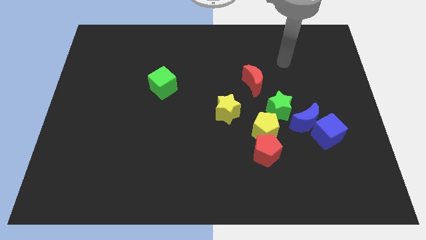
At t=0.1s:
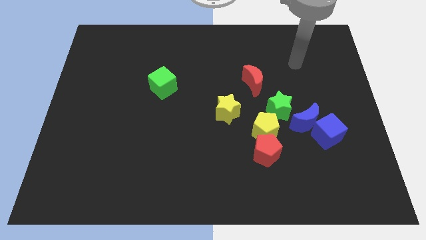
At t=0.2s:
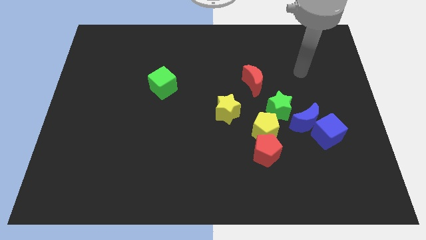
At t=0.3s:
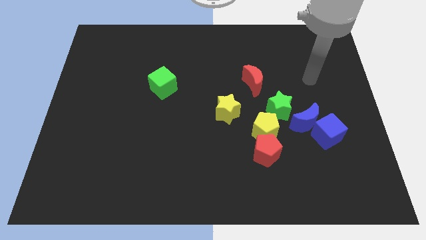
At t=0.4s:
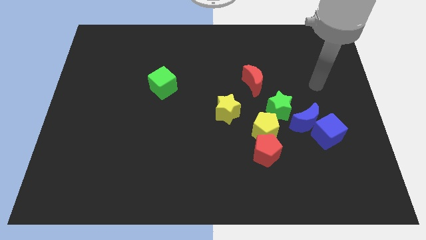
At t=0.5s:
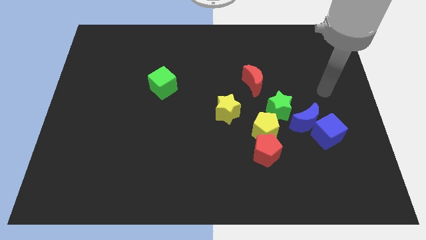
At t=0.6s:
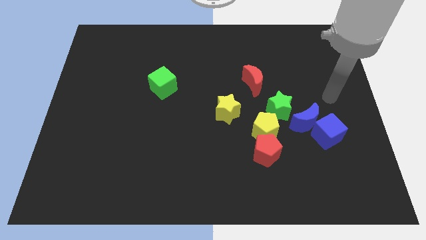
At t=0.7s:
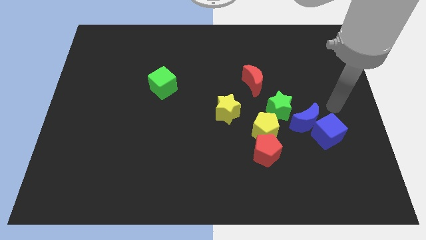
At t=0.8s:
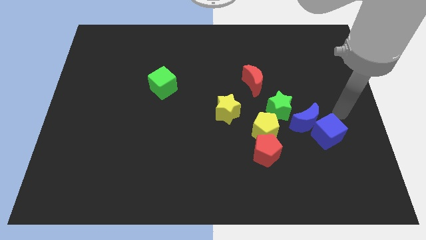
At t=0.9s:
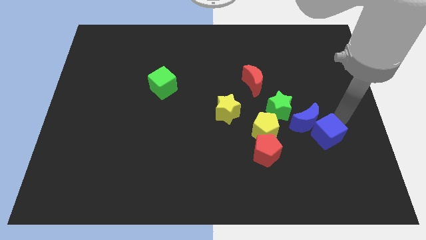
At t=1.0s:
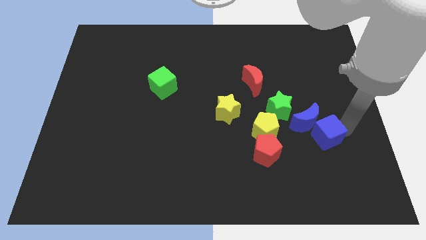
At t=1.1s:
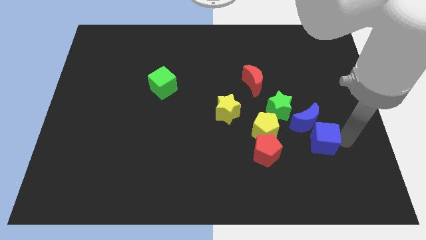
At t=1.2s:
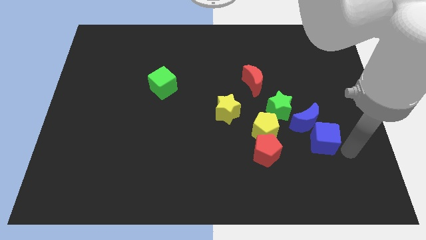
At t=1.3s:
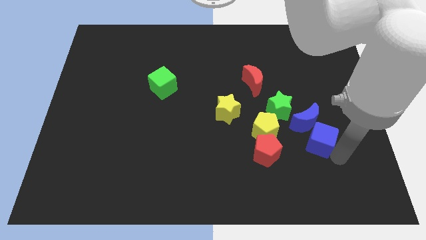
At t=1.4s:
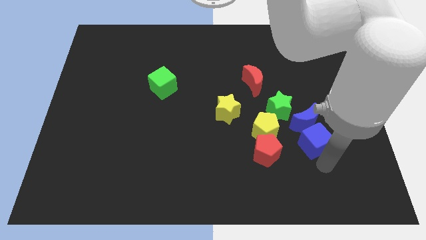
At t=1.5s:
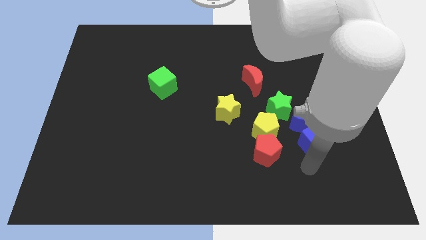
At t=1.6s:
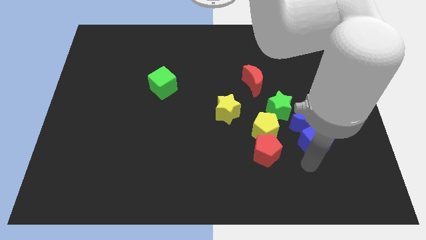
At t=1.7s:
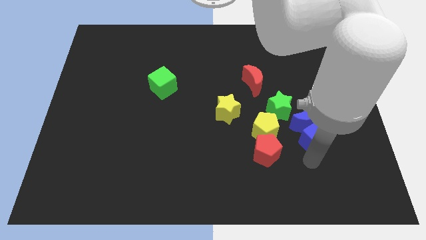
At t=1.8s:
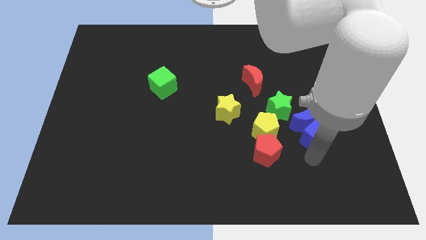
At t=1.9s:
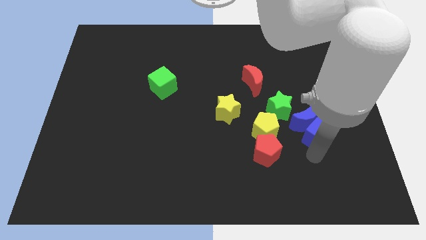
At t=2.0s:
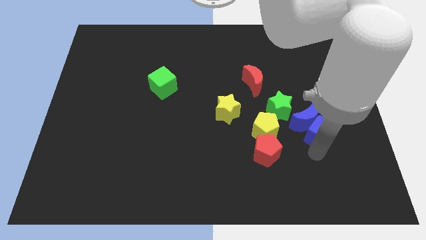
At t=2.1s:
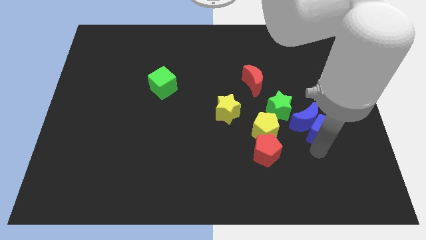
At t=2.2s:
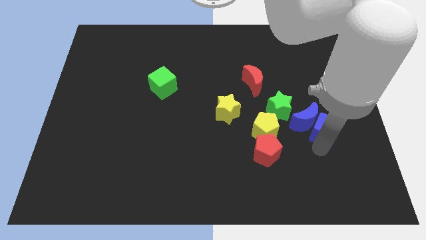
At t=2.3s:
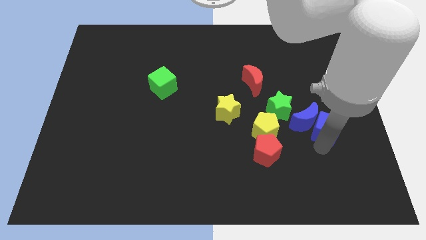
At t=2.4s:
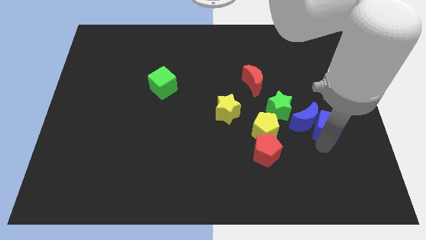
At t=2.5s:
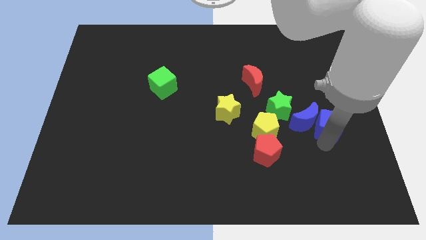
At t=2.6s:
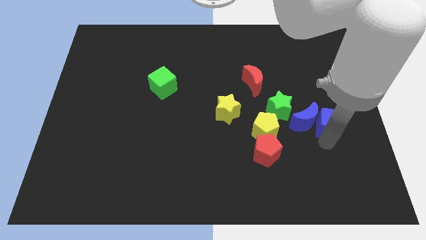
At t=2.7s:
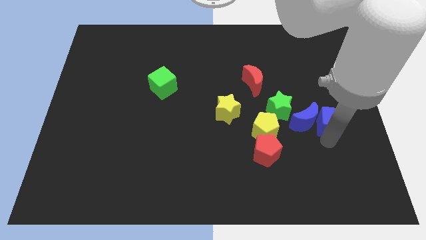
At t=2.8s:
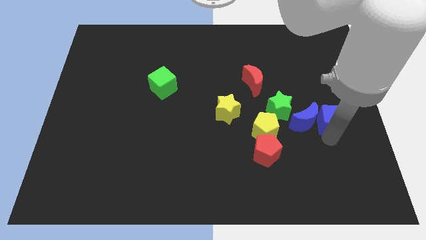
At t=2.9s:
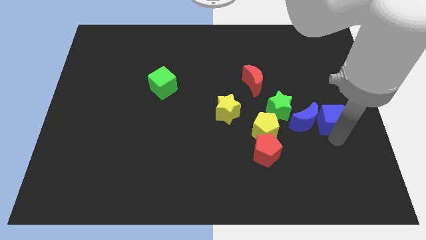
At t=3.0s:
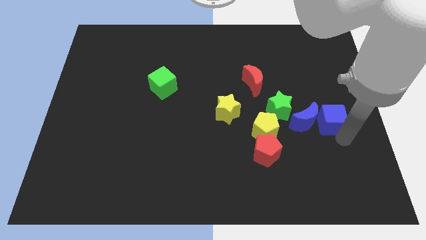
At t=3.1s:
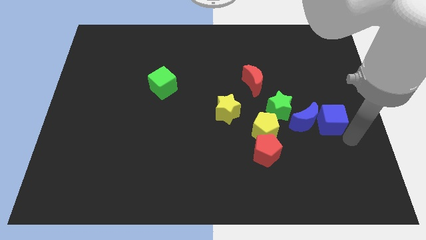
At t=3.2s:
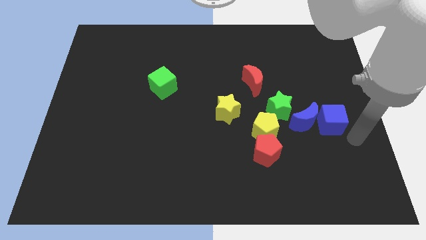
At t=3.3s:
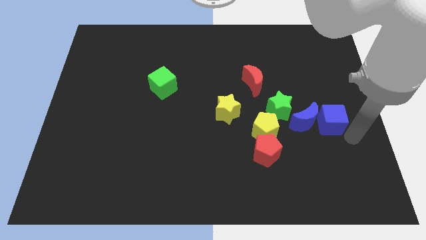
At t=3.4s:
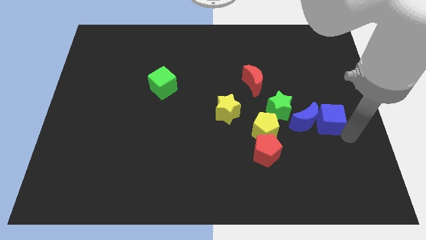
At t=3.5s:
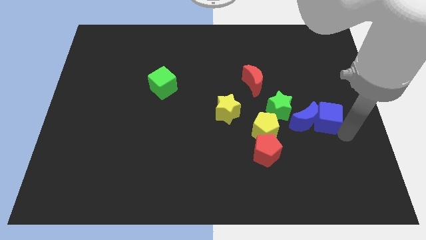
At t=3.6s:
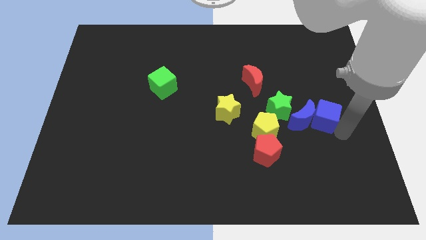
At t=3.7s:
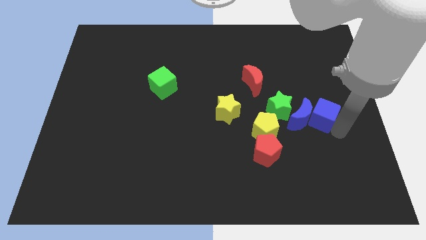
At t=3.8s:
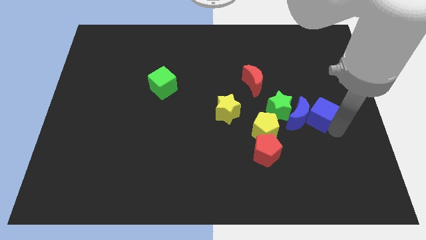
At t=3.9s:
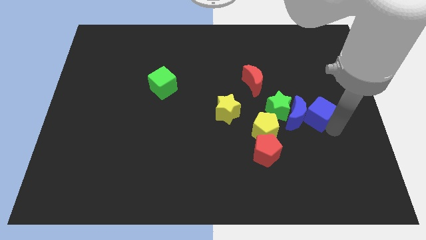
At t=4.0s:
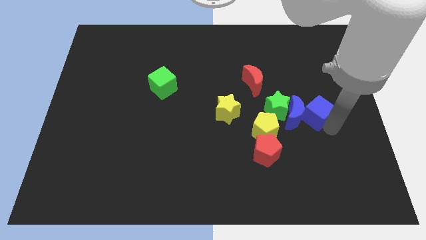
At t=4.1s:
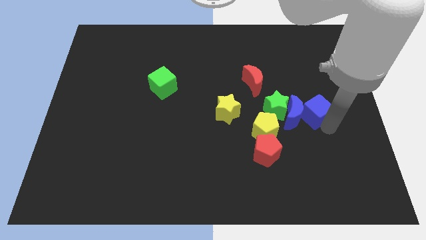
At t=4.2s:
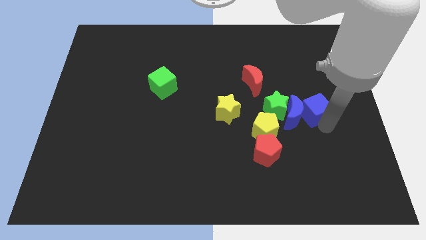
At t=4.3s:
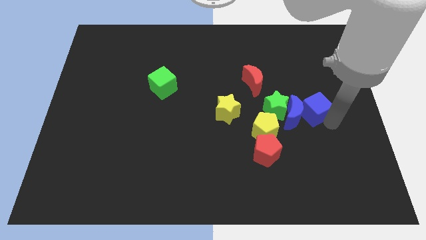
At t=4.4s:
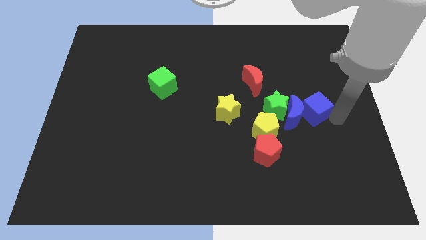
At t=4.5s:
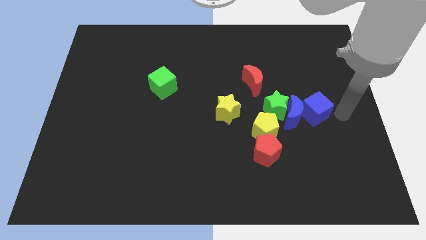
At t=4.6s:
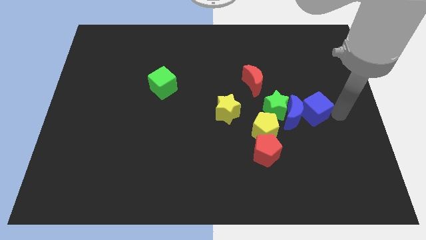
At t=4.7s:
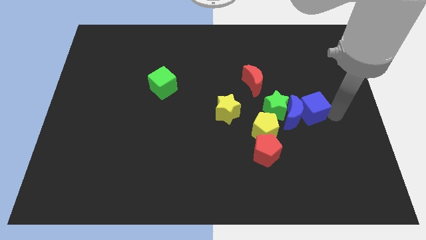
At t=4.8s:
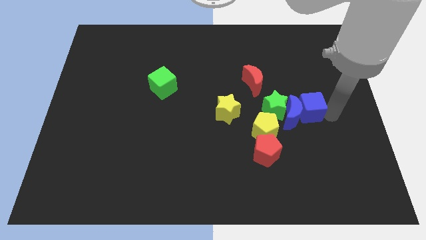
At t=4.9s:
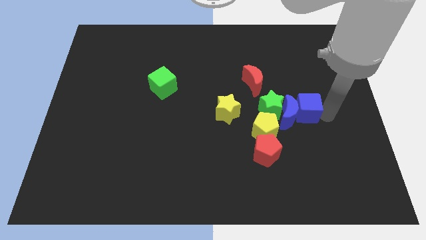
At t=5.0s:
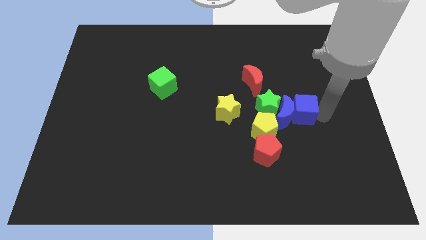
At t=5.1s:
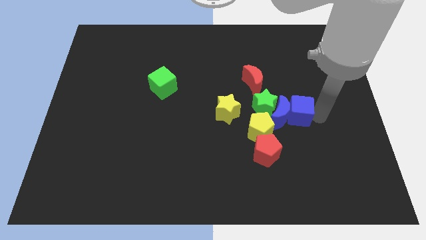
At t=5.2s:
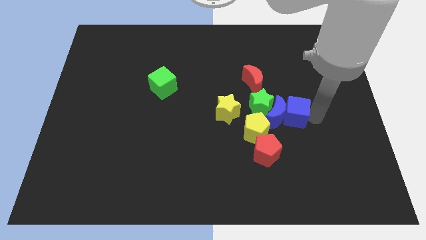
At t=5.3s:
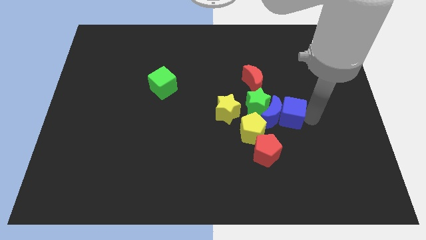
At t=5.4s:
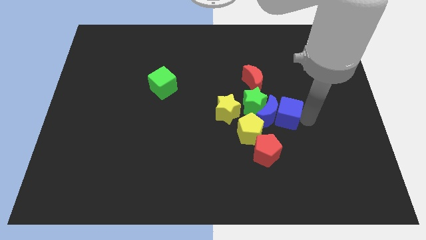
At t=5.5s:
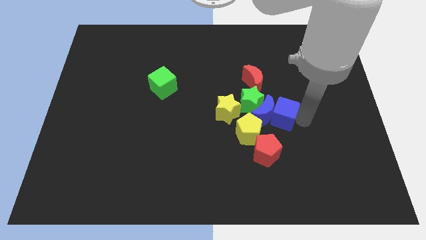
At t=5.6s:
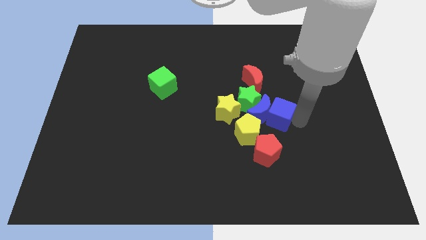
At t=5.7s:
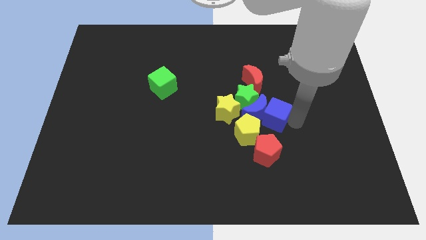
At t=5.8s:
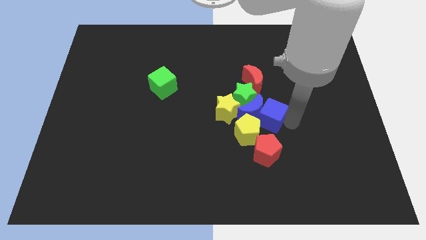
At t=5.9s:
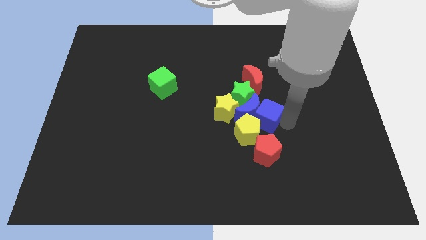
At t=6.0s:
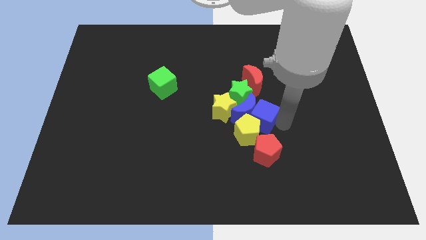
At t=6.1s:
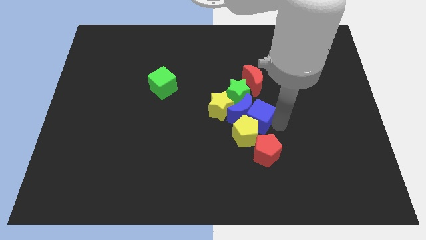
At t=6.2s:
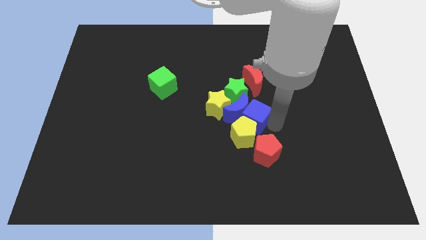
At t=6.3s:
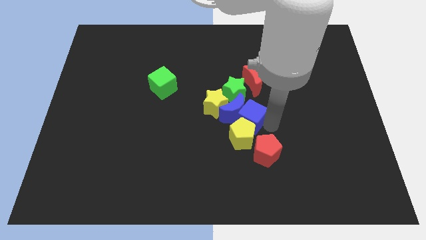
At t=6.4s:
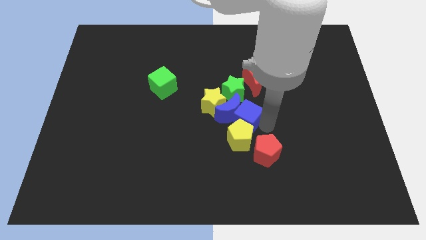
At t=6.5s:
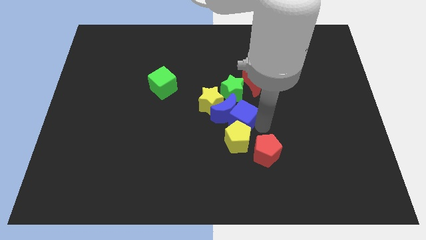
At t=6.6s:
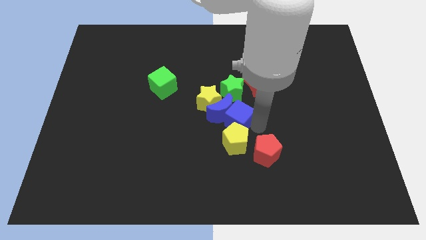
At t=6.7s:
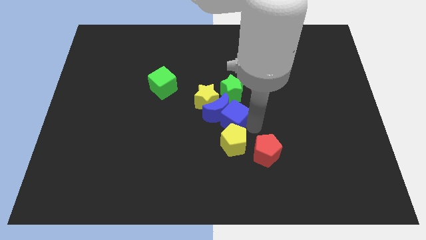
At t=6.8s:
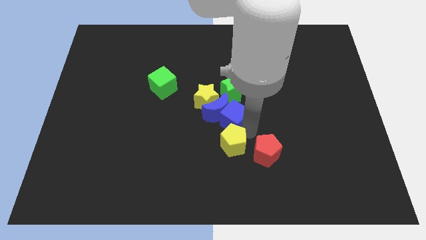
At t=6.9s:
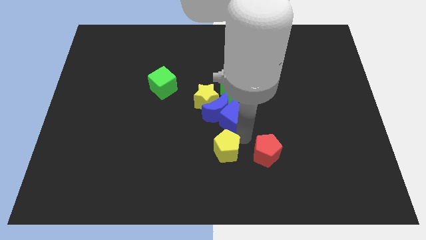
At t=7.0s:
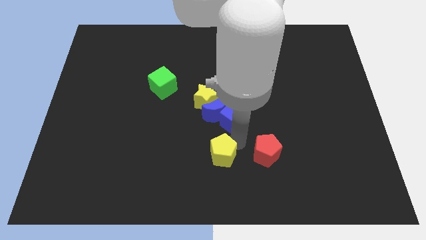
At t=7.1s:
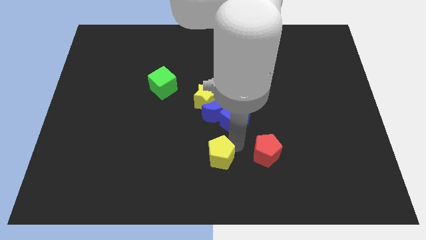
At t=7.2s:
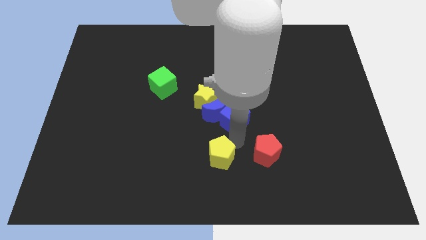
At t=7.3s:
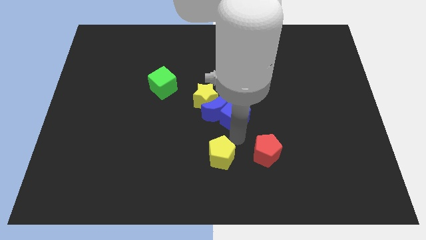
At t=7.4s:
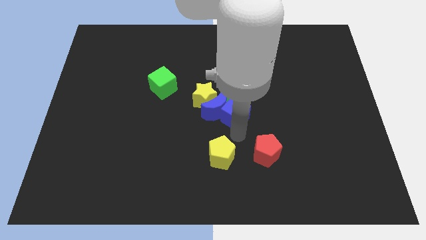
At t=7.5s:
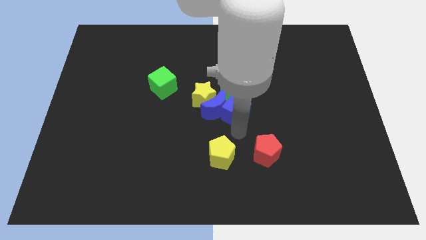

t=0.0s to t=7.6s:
move the blue cube next to the green star
